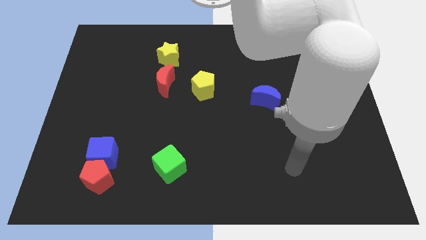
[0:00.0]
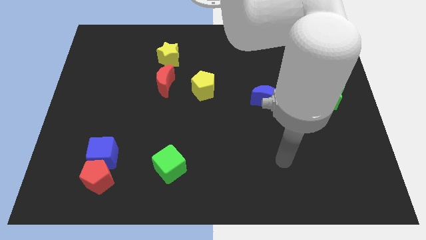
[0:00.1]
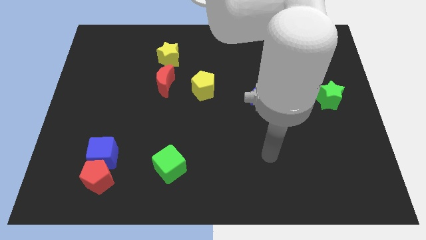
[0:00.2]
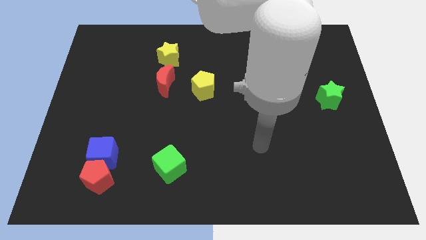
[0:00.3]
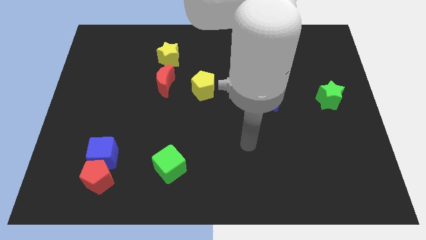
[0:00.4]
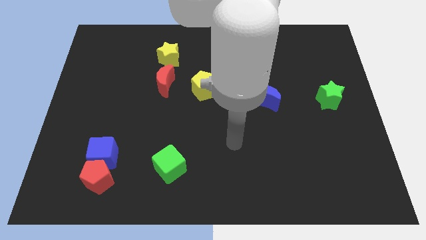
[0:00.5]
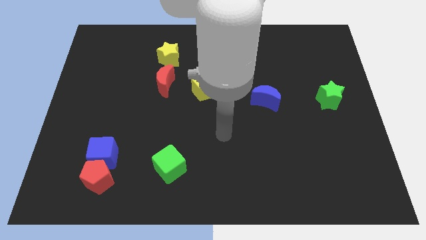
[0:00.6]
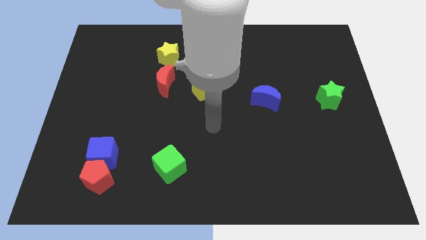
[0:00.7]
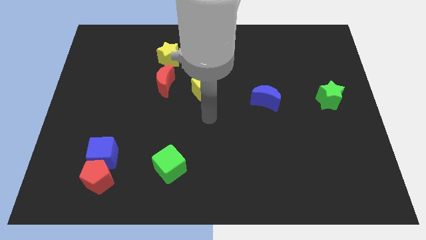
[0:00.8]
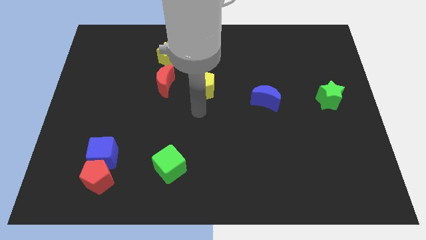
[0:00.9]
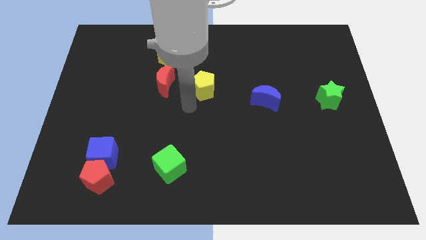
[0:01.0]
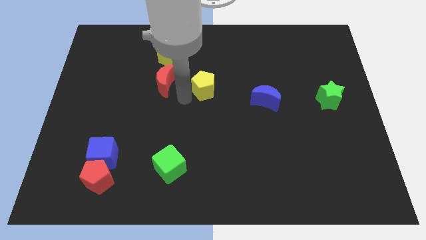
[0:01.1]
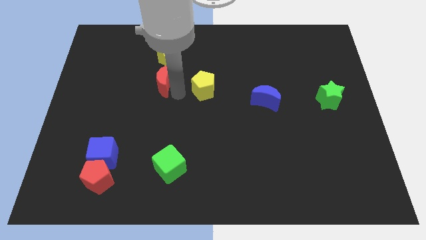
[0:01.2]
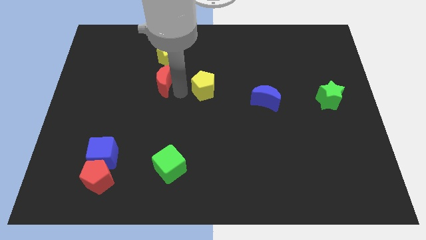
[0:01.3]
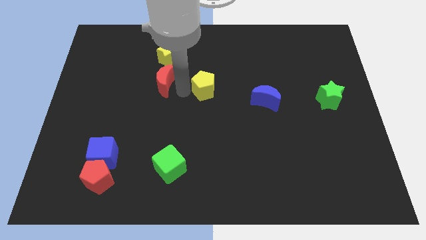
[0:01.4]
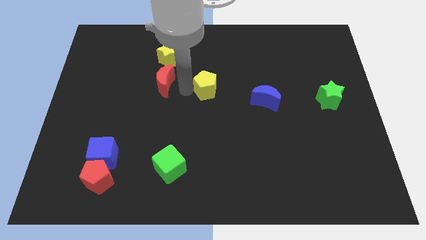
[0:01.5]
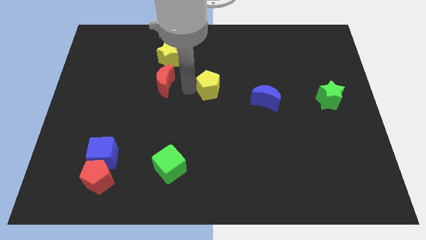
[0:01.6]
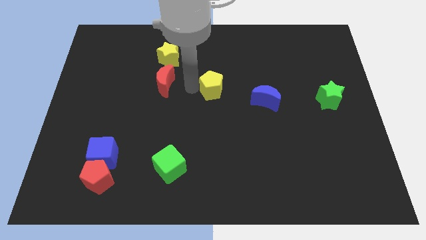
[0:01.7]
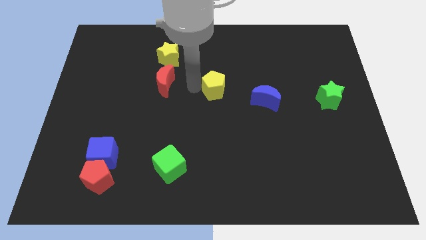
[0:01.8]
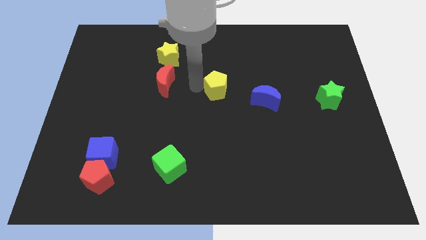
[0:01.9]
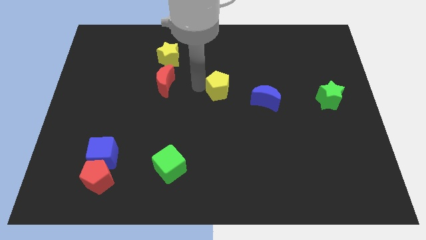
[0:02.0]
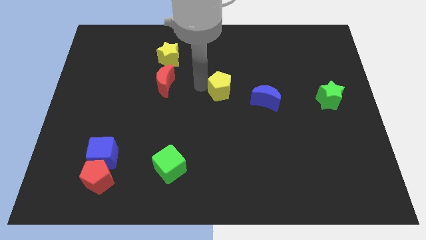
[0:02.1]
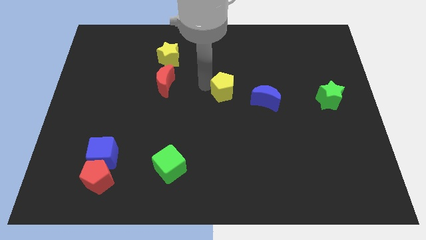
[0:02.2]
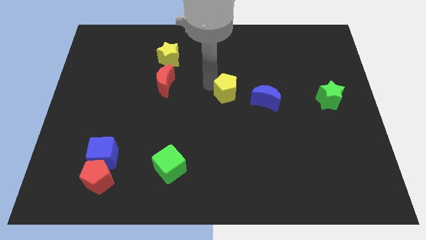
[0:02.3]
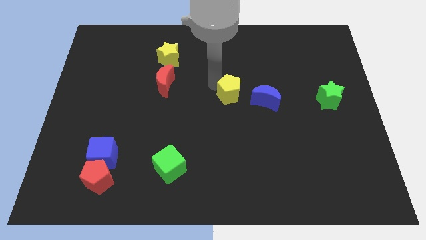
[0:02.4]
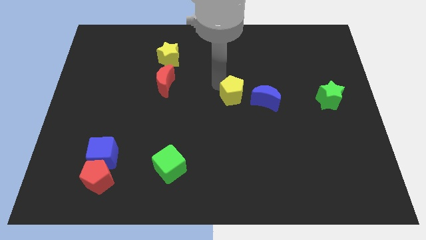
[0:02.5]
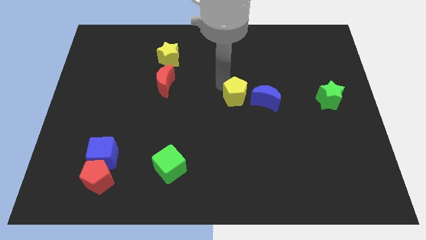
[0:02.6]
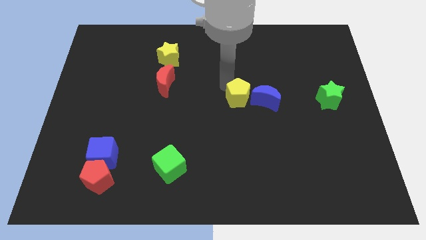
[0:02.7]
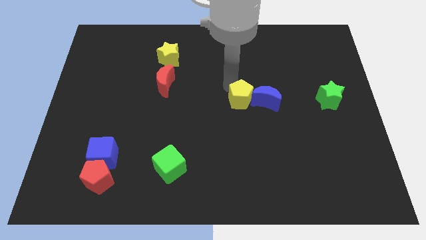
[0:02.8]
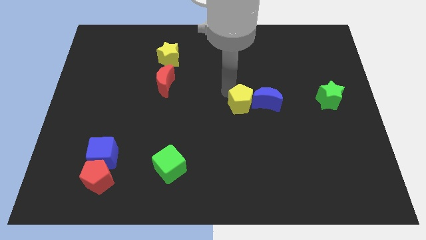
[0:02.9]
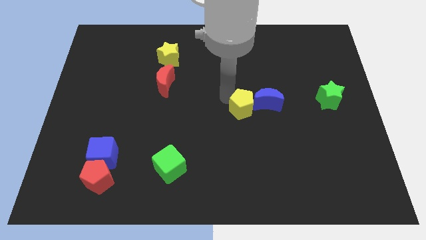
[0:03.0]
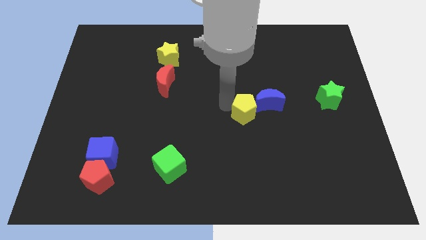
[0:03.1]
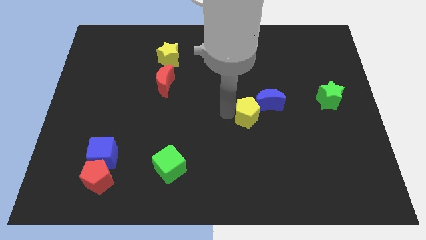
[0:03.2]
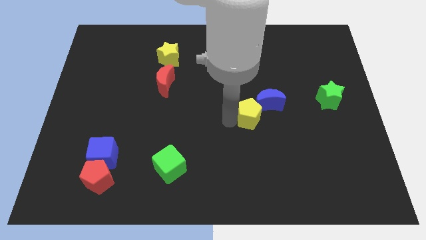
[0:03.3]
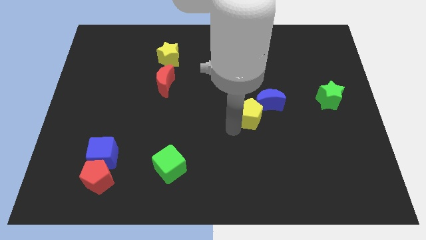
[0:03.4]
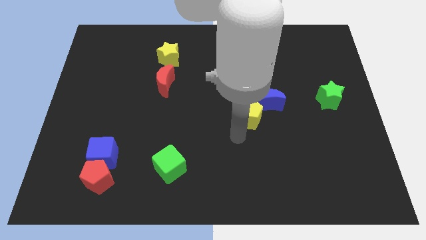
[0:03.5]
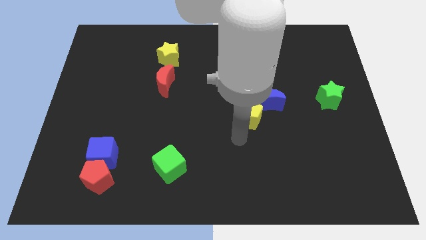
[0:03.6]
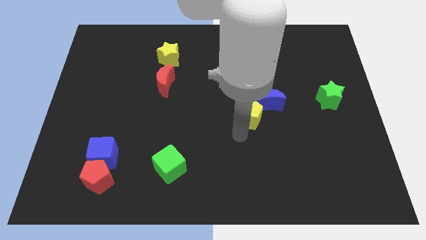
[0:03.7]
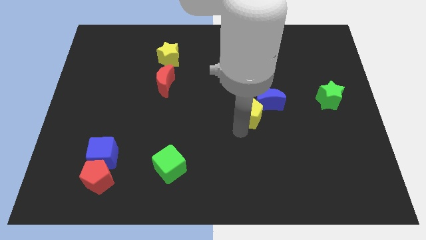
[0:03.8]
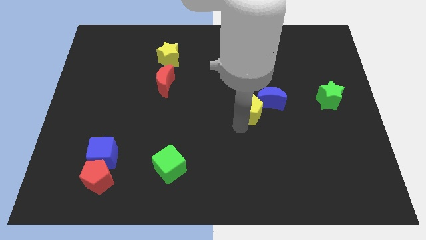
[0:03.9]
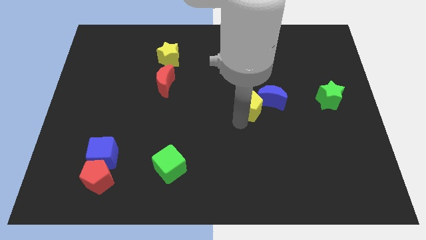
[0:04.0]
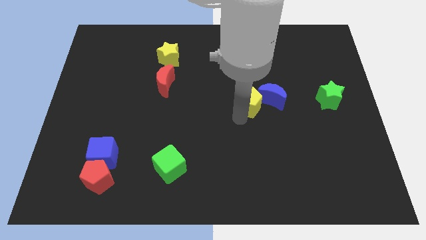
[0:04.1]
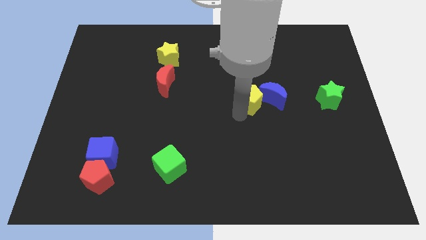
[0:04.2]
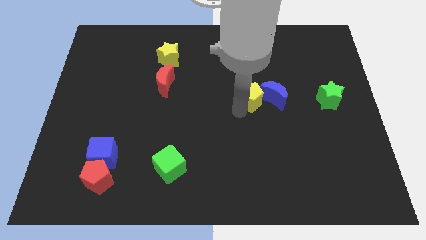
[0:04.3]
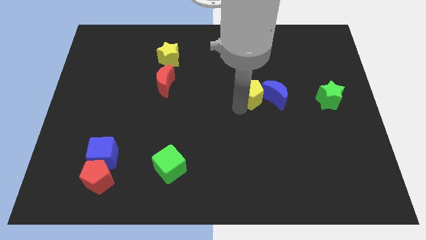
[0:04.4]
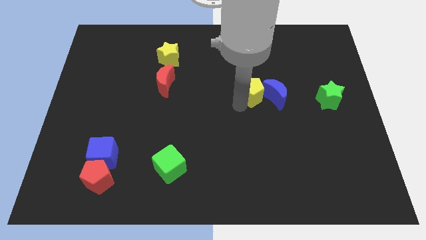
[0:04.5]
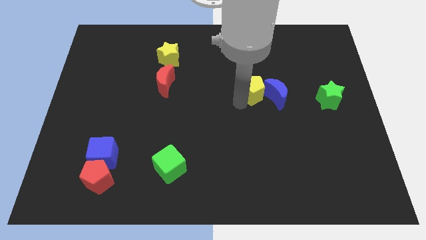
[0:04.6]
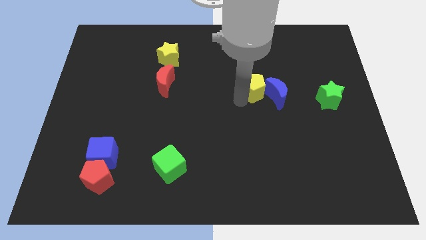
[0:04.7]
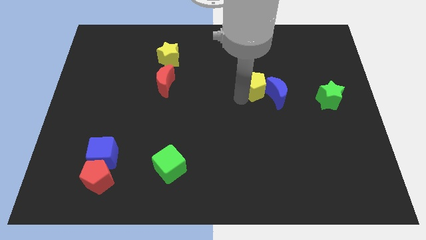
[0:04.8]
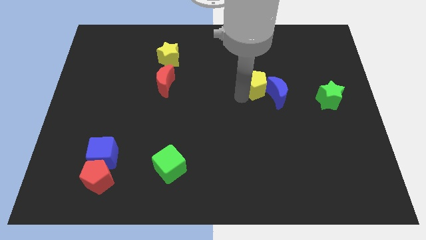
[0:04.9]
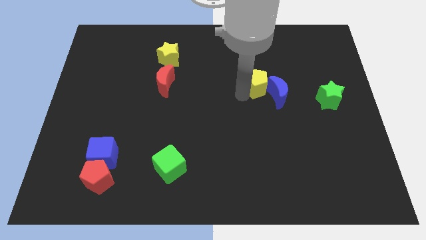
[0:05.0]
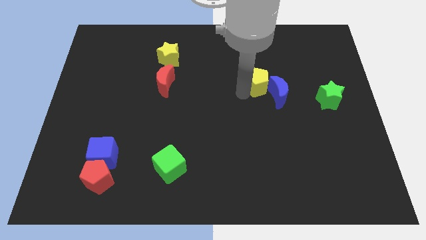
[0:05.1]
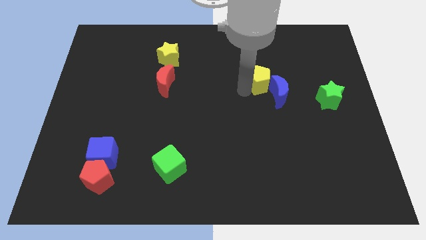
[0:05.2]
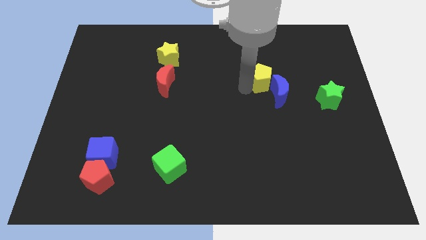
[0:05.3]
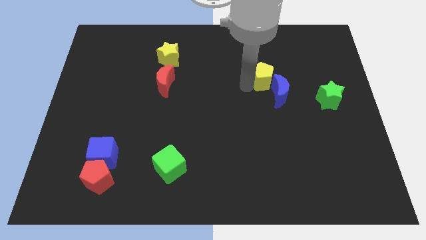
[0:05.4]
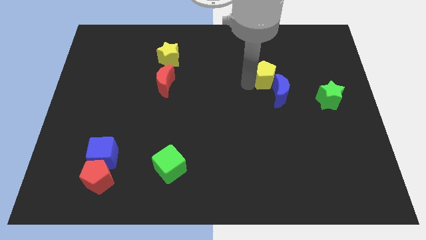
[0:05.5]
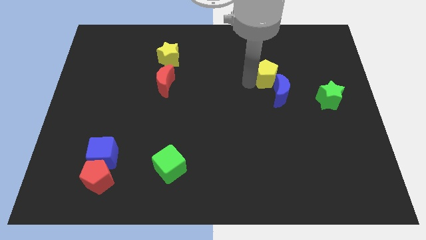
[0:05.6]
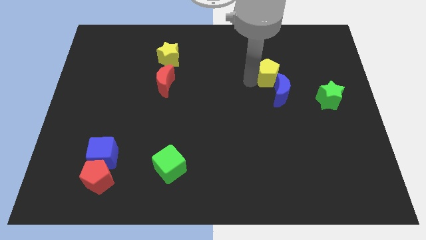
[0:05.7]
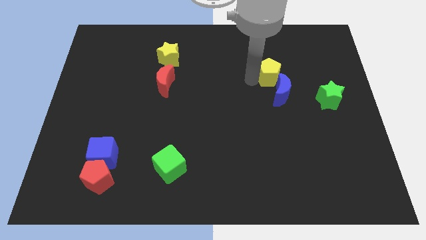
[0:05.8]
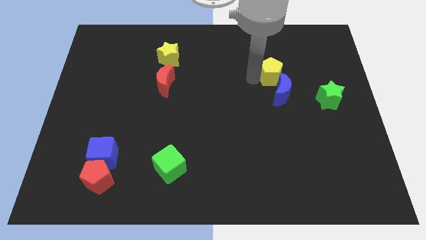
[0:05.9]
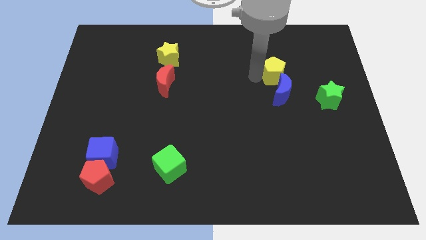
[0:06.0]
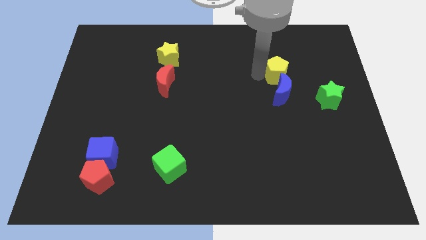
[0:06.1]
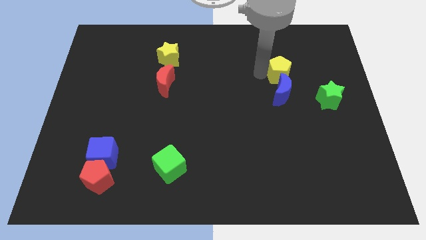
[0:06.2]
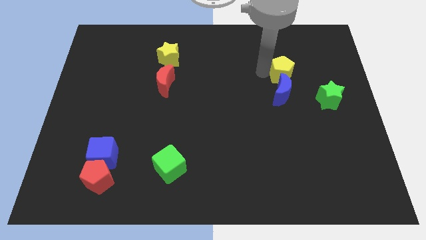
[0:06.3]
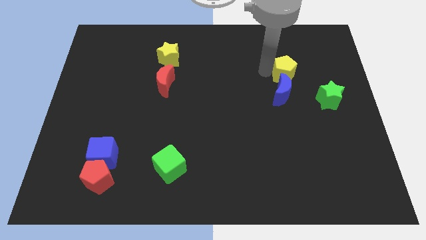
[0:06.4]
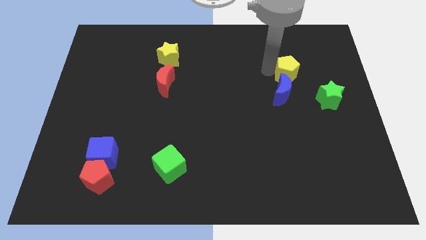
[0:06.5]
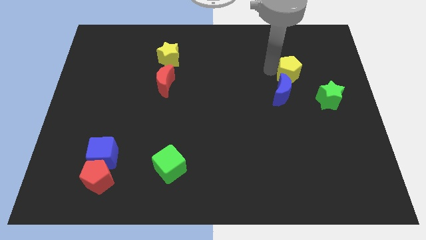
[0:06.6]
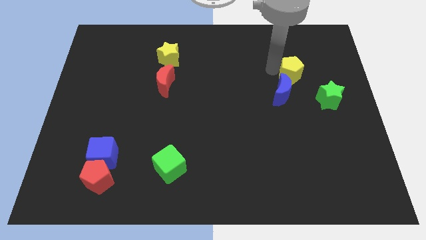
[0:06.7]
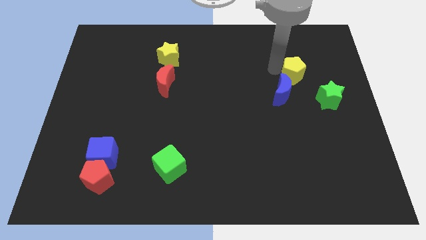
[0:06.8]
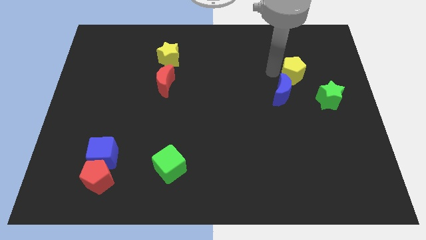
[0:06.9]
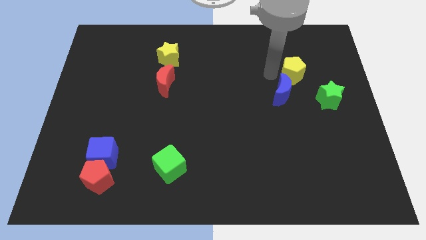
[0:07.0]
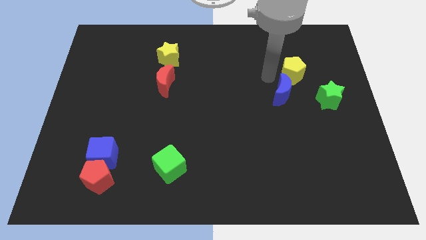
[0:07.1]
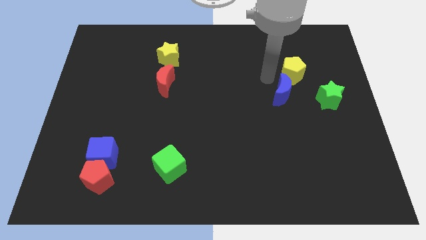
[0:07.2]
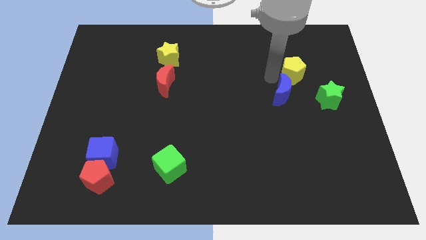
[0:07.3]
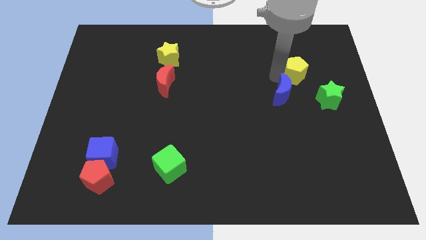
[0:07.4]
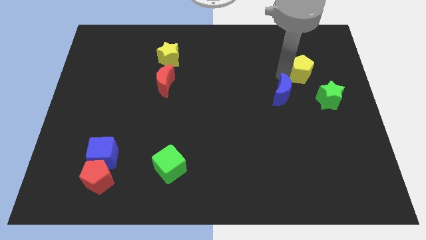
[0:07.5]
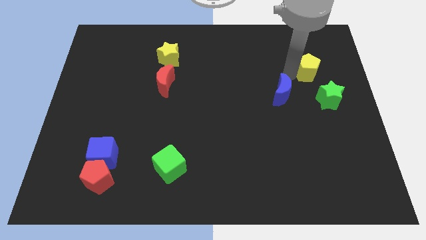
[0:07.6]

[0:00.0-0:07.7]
put the yellow pentagon to the top side of the green star
